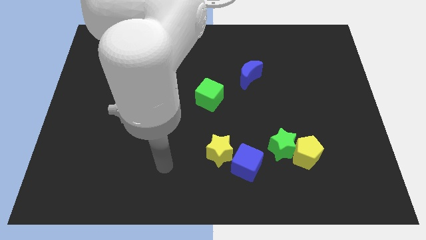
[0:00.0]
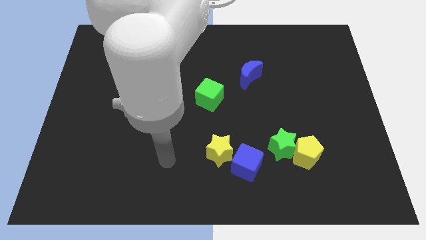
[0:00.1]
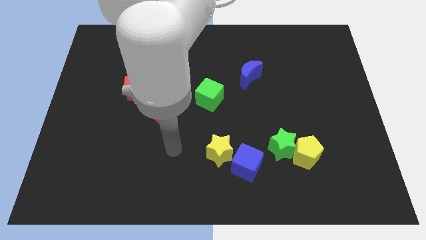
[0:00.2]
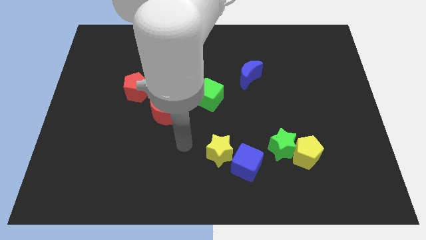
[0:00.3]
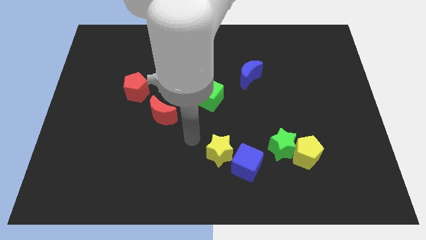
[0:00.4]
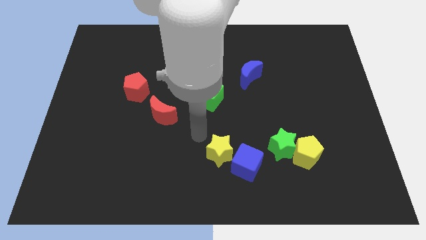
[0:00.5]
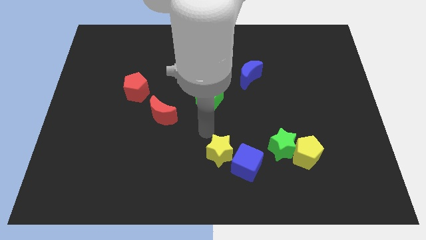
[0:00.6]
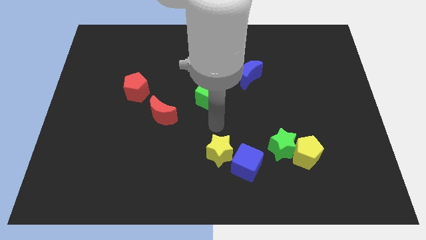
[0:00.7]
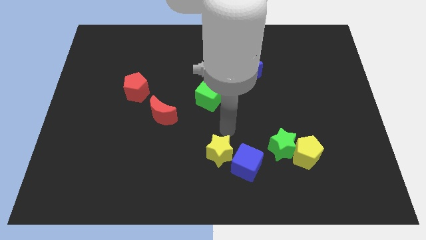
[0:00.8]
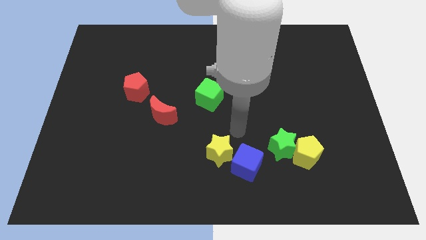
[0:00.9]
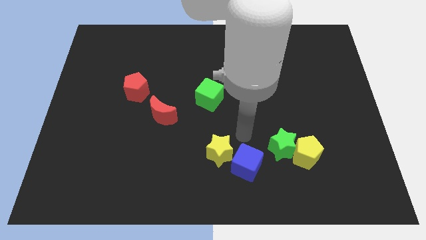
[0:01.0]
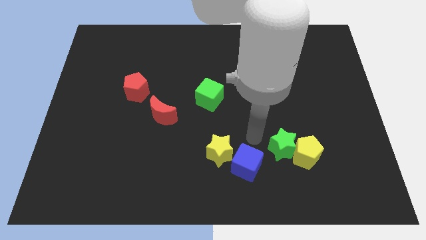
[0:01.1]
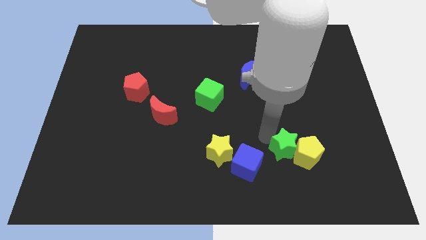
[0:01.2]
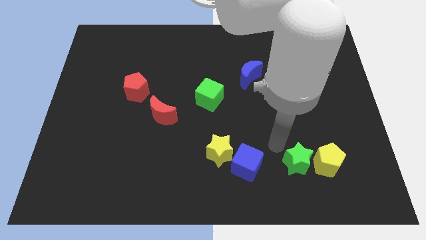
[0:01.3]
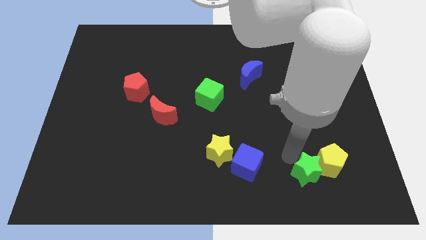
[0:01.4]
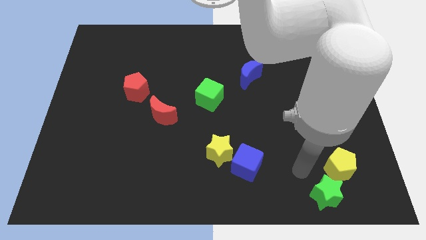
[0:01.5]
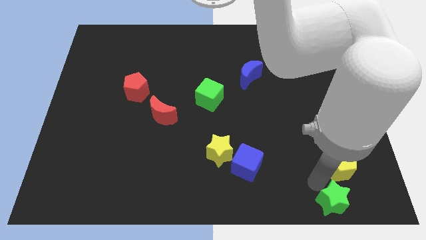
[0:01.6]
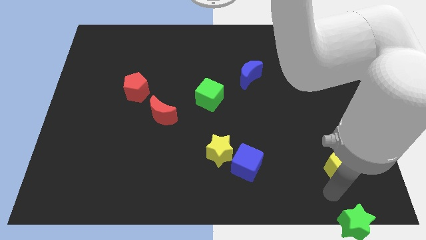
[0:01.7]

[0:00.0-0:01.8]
separate the yellow pentagon from the green star

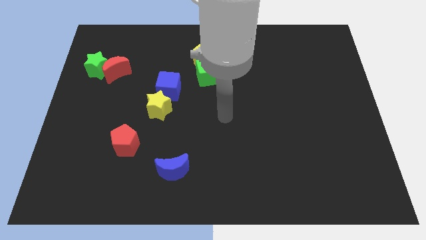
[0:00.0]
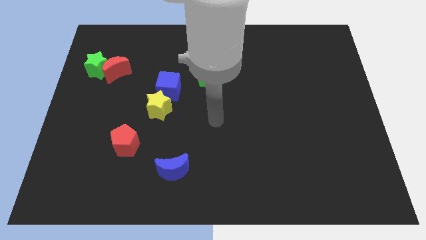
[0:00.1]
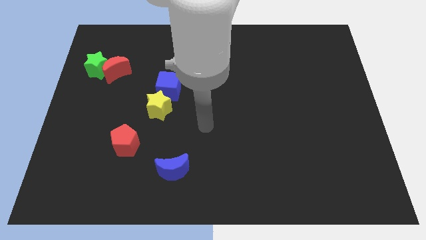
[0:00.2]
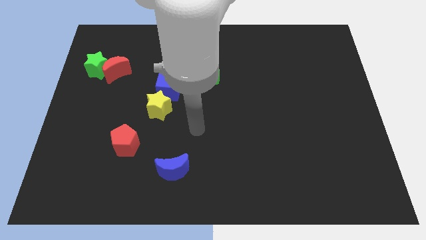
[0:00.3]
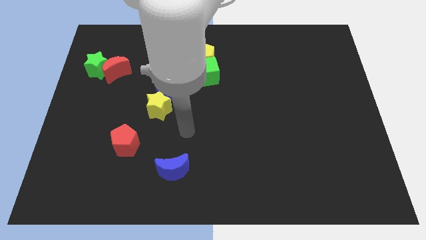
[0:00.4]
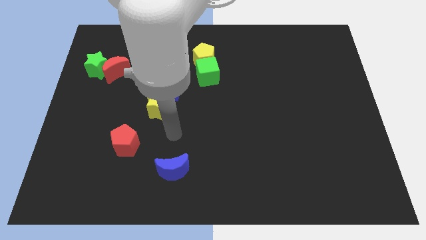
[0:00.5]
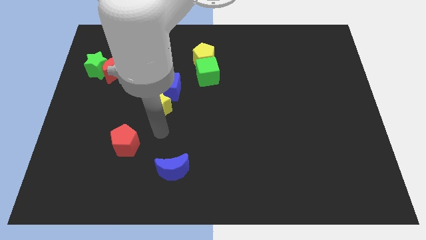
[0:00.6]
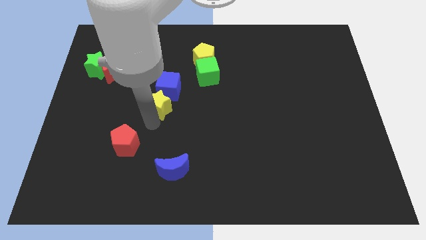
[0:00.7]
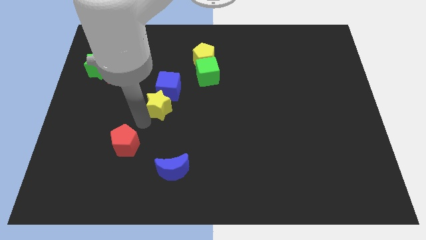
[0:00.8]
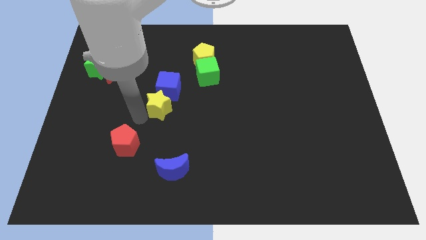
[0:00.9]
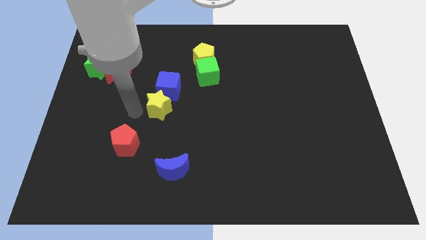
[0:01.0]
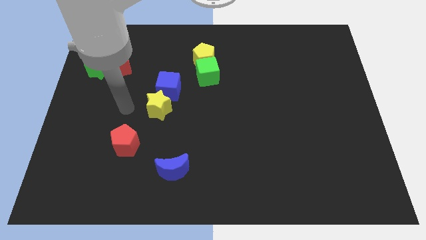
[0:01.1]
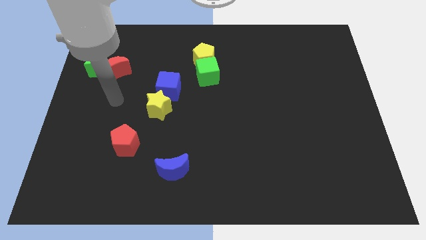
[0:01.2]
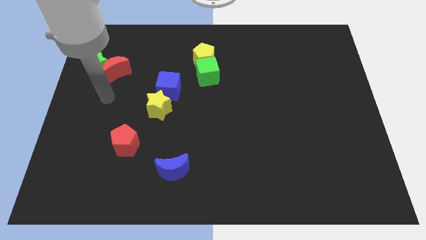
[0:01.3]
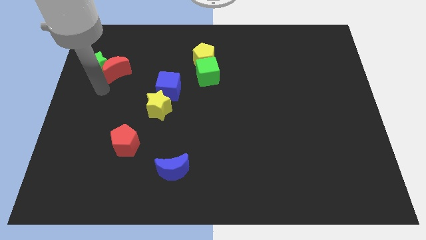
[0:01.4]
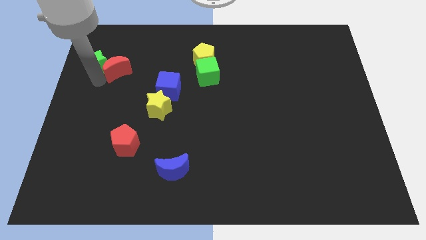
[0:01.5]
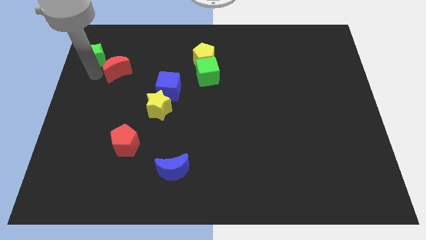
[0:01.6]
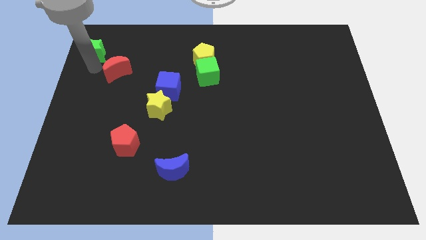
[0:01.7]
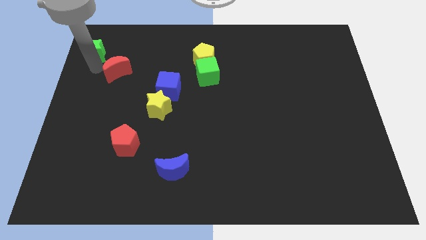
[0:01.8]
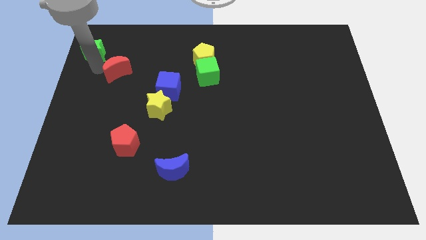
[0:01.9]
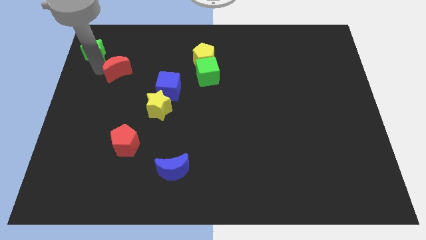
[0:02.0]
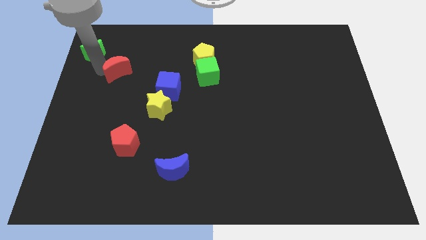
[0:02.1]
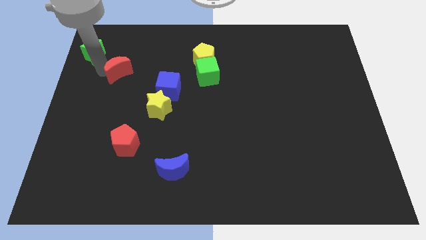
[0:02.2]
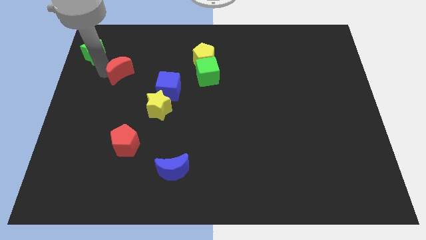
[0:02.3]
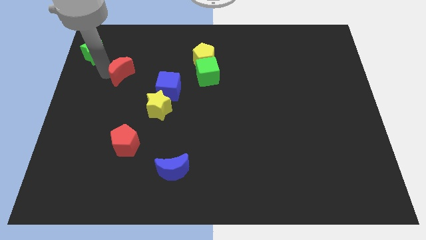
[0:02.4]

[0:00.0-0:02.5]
move the red moon away from the green star

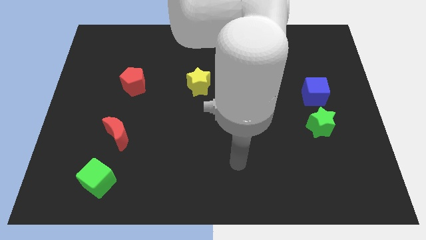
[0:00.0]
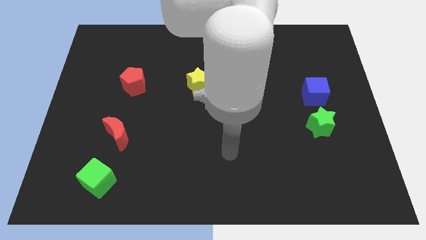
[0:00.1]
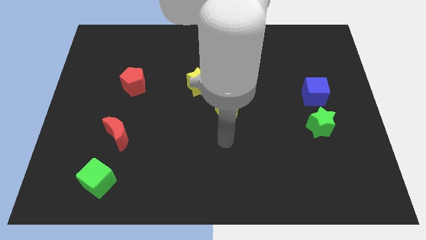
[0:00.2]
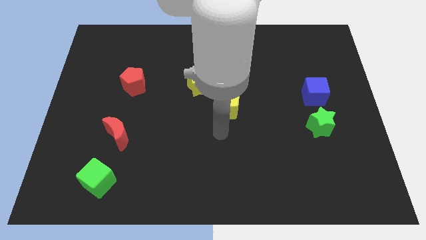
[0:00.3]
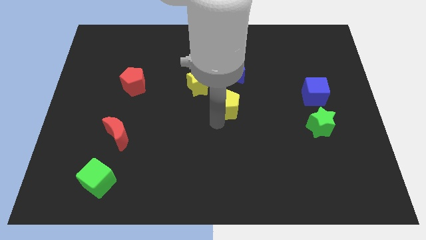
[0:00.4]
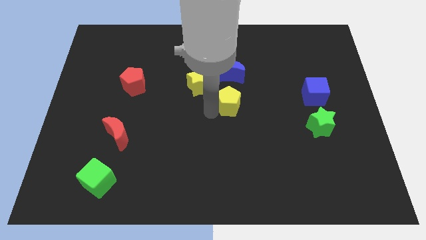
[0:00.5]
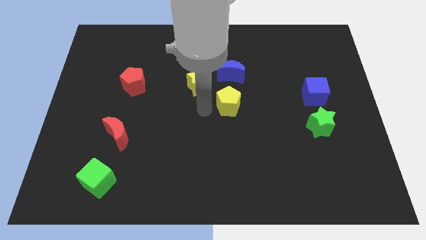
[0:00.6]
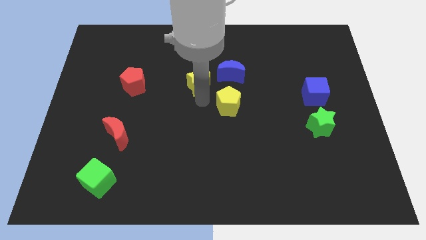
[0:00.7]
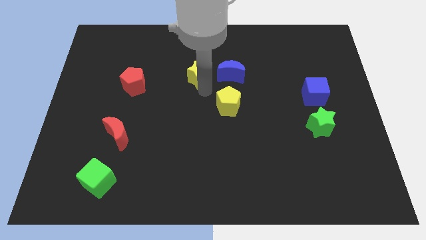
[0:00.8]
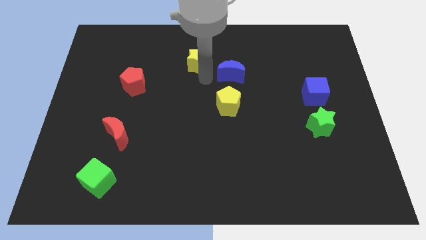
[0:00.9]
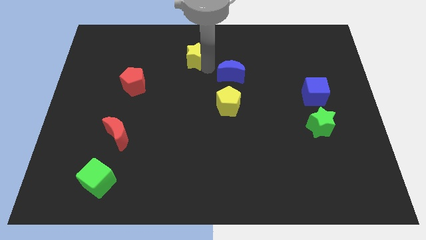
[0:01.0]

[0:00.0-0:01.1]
move the blue moon away from the yellow star

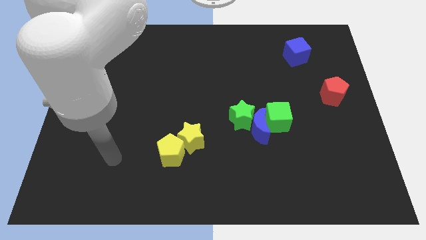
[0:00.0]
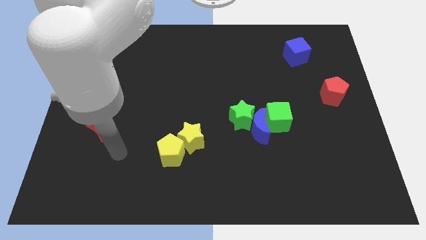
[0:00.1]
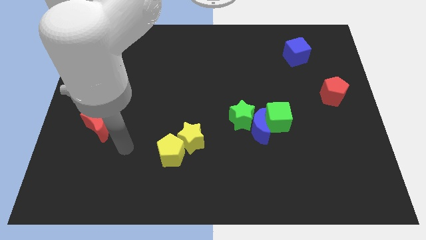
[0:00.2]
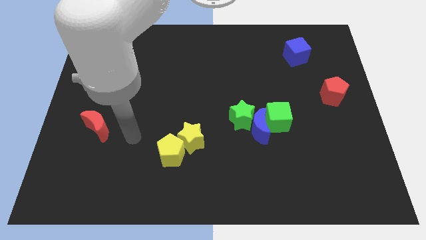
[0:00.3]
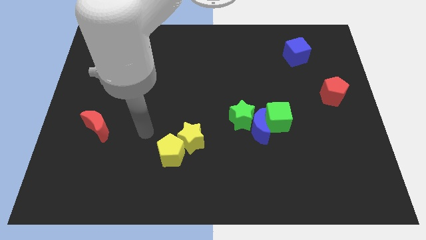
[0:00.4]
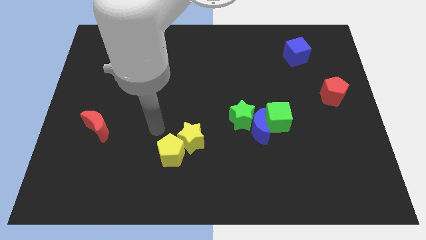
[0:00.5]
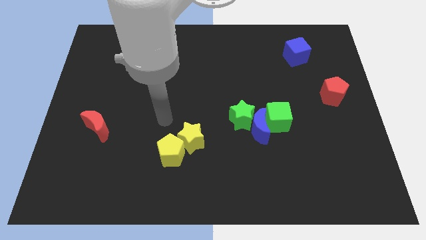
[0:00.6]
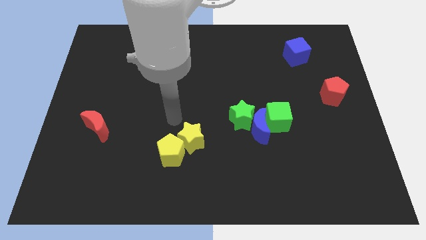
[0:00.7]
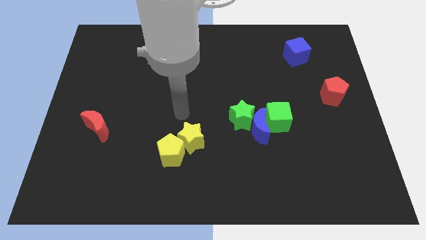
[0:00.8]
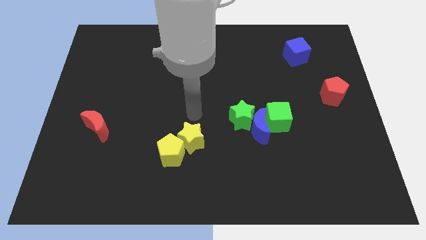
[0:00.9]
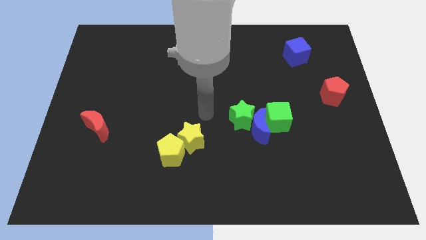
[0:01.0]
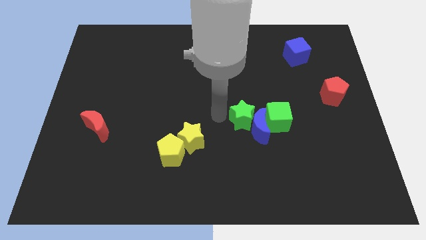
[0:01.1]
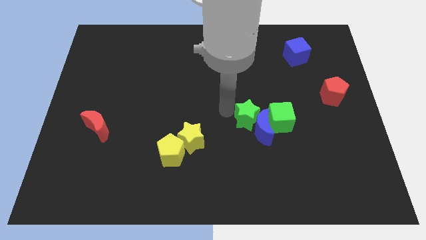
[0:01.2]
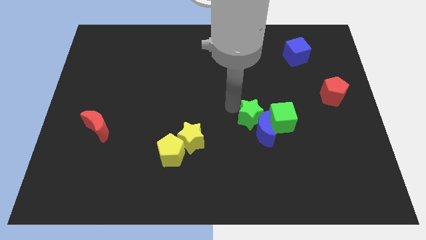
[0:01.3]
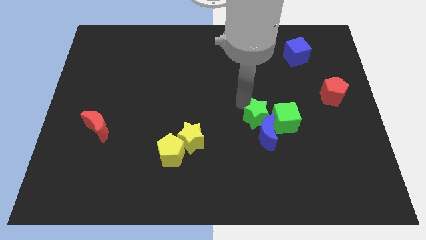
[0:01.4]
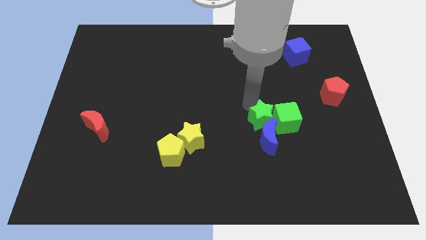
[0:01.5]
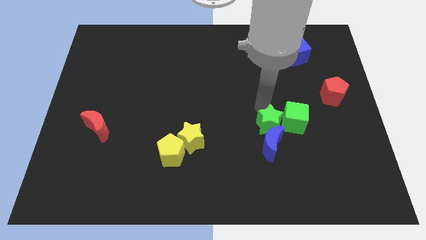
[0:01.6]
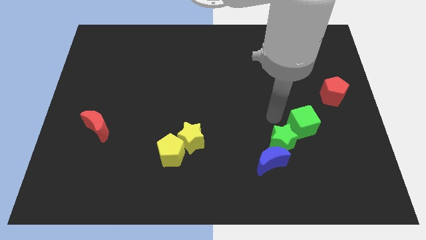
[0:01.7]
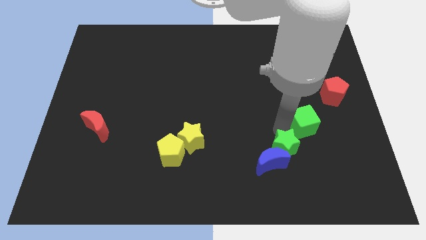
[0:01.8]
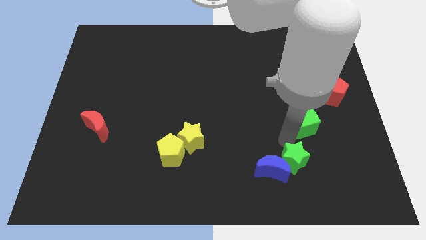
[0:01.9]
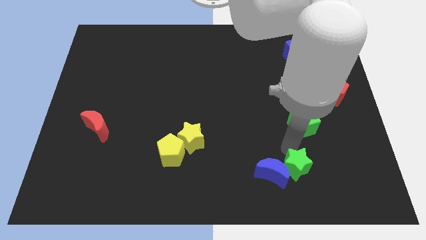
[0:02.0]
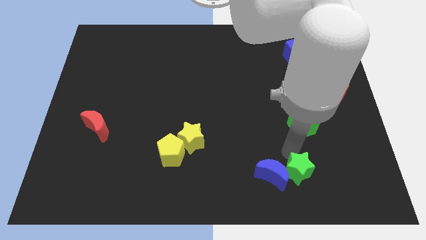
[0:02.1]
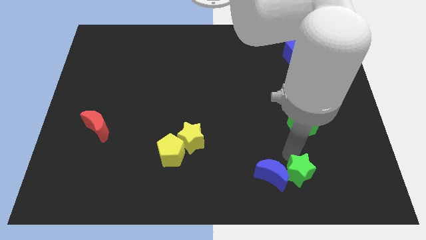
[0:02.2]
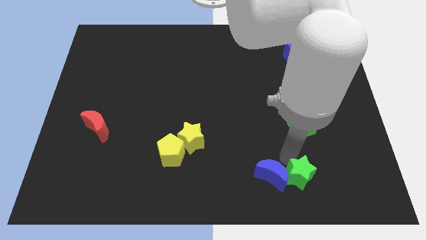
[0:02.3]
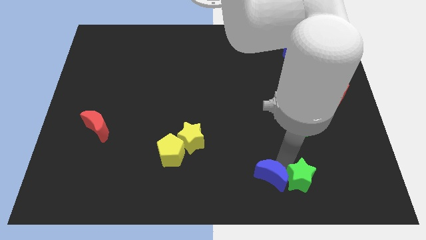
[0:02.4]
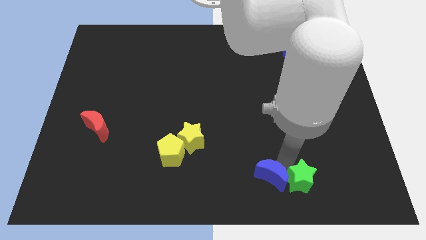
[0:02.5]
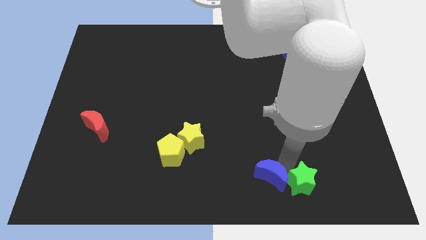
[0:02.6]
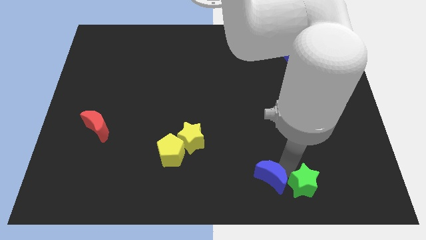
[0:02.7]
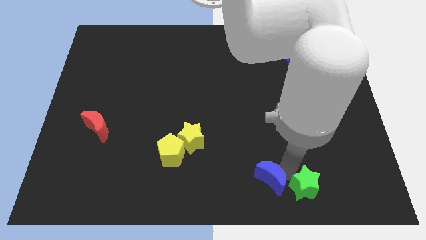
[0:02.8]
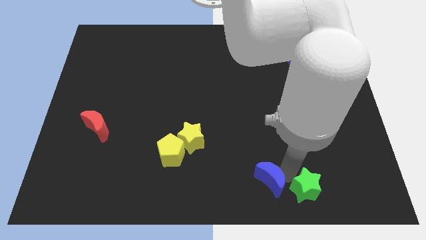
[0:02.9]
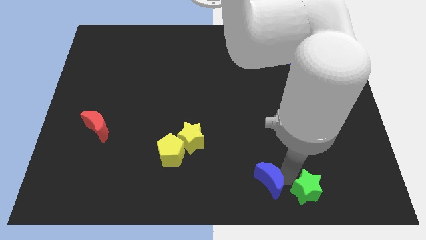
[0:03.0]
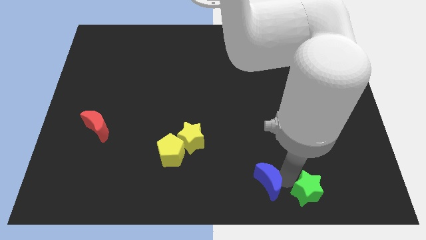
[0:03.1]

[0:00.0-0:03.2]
move the blue moon away from the green star and green cube

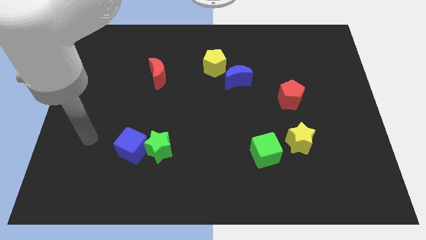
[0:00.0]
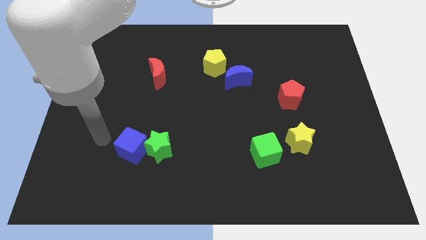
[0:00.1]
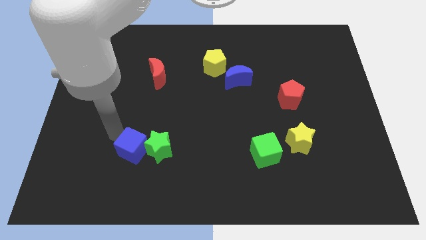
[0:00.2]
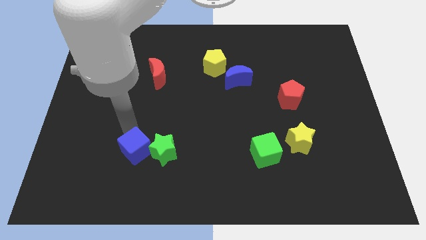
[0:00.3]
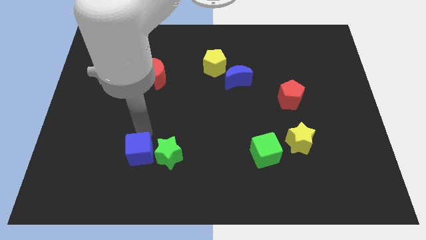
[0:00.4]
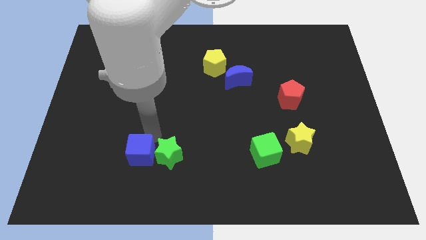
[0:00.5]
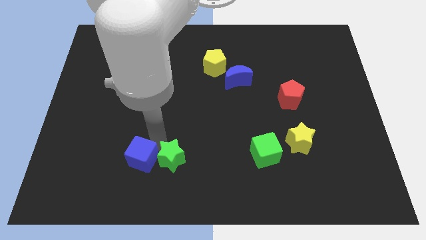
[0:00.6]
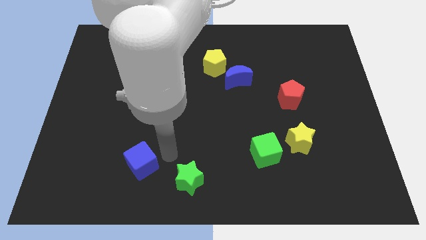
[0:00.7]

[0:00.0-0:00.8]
move the blue cube away from the green star
